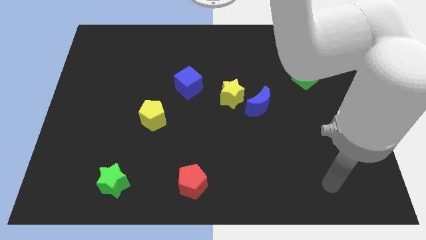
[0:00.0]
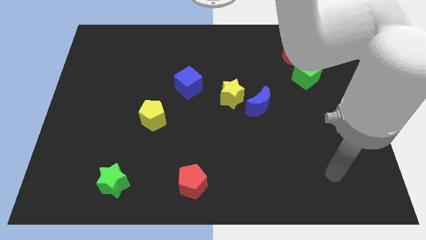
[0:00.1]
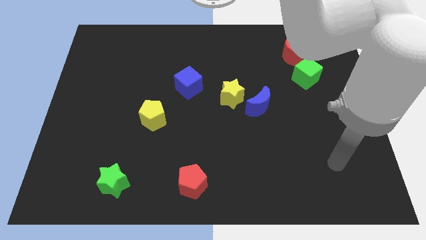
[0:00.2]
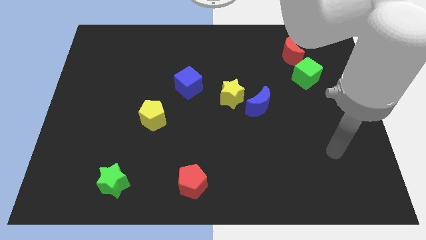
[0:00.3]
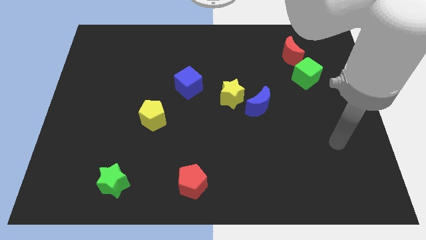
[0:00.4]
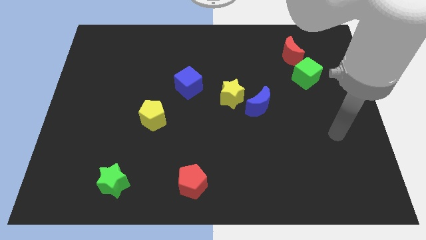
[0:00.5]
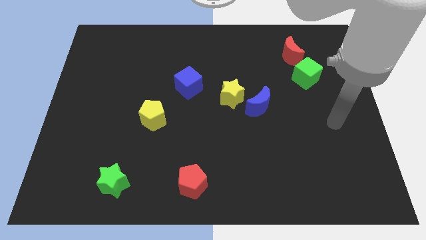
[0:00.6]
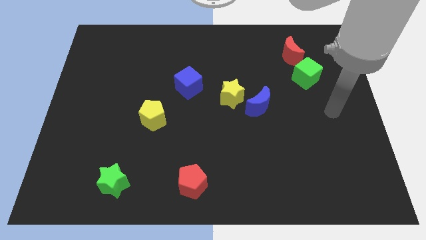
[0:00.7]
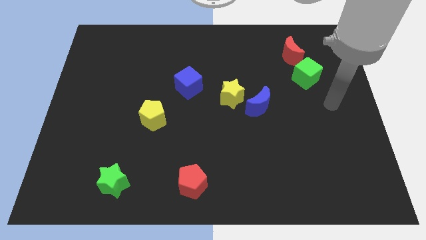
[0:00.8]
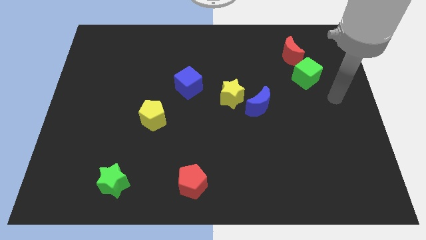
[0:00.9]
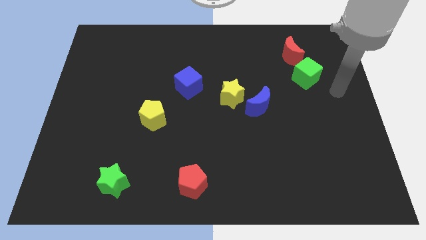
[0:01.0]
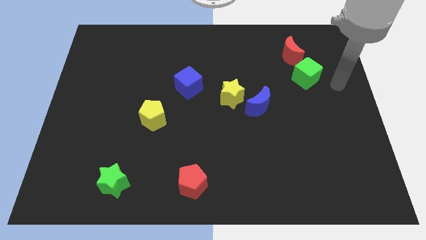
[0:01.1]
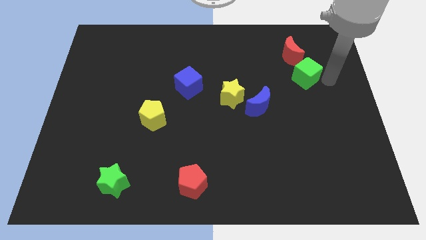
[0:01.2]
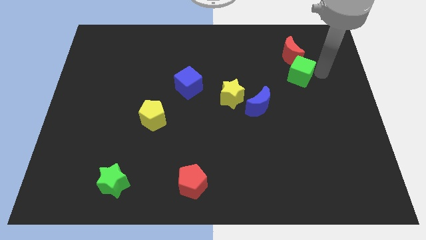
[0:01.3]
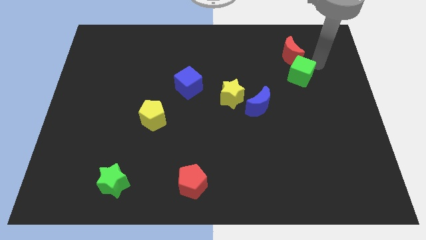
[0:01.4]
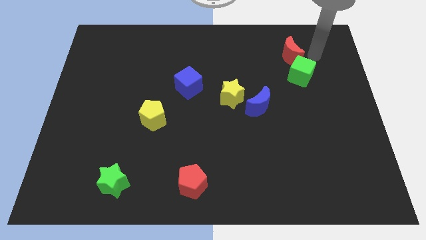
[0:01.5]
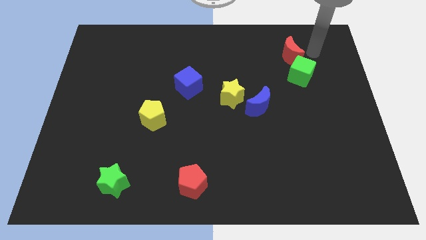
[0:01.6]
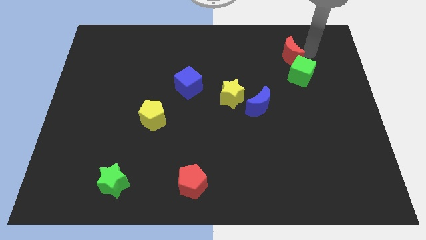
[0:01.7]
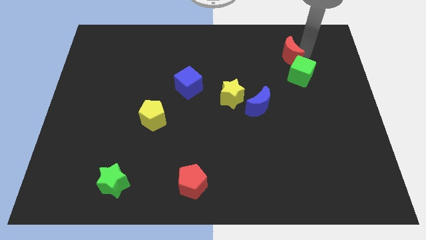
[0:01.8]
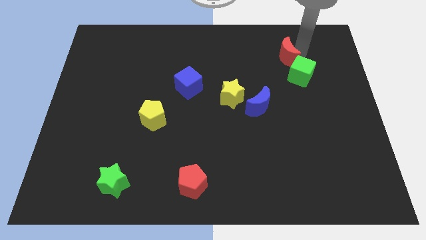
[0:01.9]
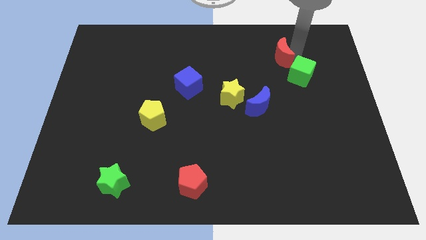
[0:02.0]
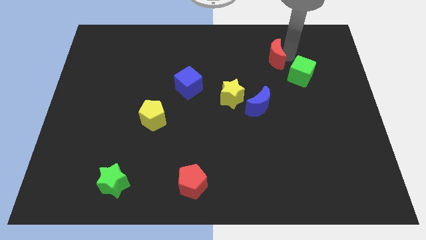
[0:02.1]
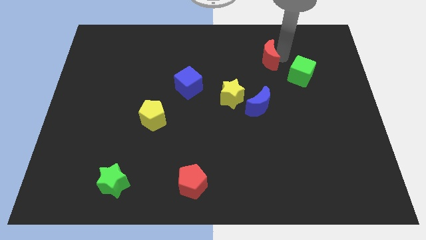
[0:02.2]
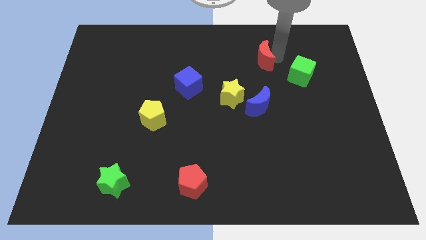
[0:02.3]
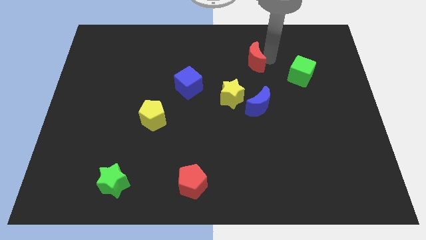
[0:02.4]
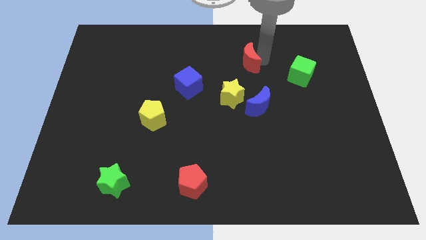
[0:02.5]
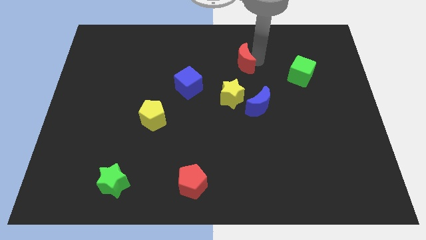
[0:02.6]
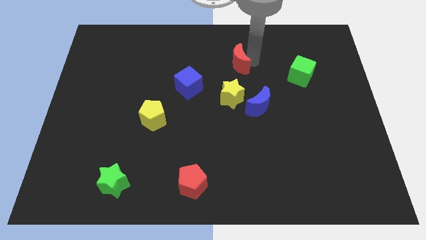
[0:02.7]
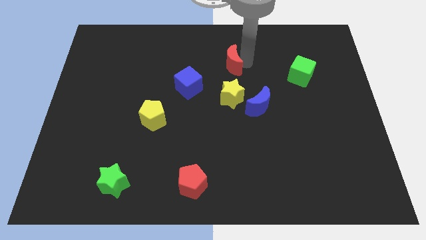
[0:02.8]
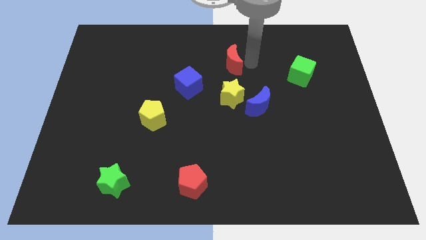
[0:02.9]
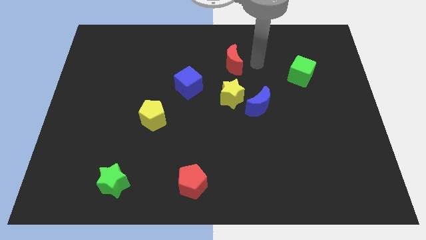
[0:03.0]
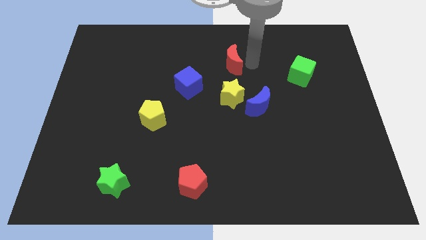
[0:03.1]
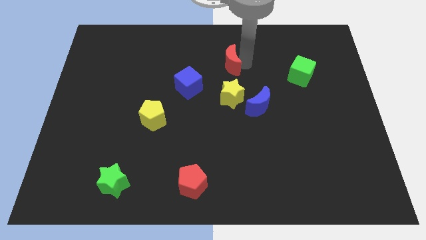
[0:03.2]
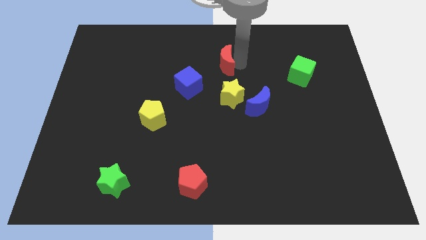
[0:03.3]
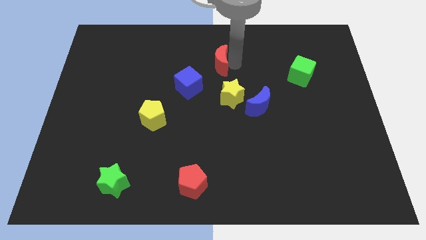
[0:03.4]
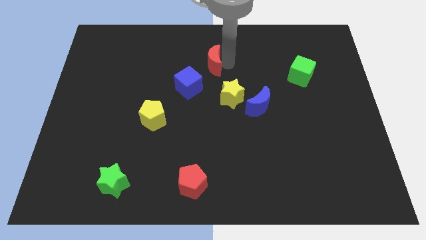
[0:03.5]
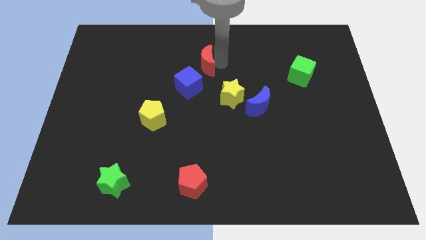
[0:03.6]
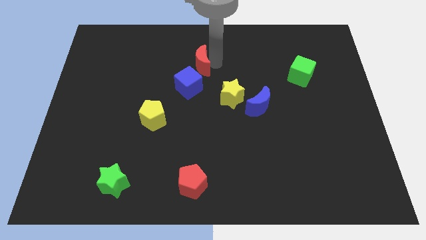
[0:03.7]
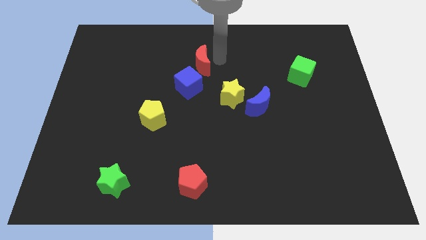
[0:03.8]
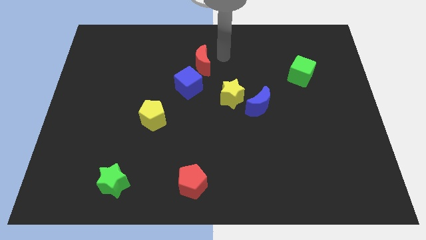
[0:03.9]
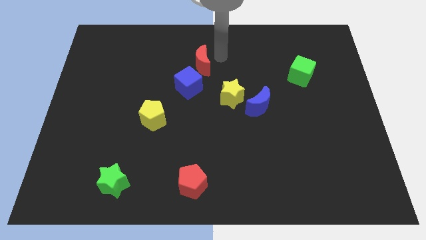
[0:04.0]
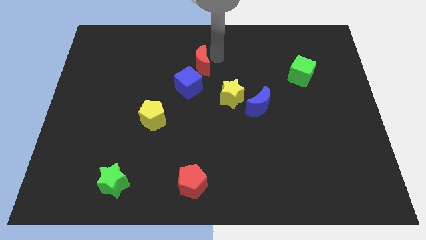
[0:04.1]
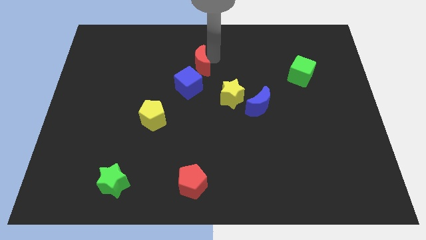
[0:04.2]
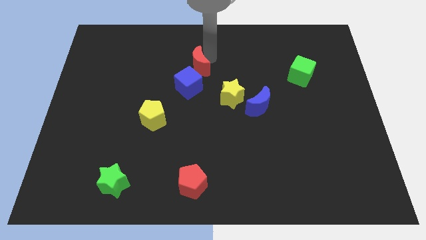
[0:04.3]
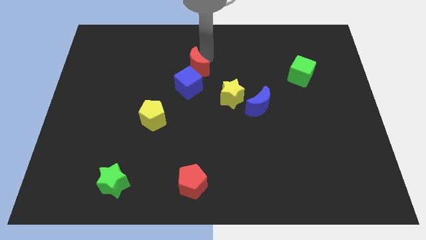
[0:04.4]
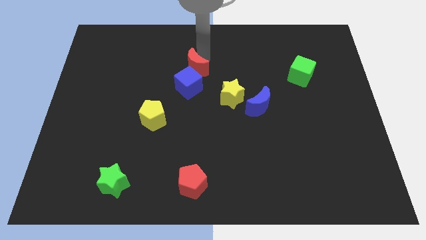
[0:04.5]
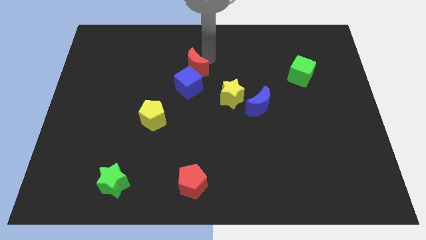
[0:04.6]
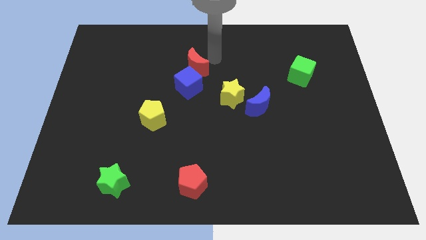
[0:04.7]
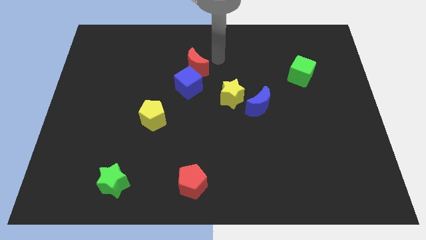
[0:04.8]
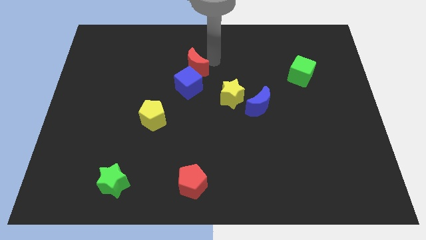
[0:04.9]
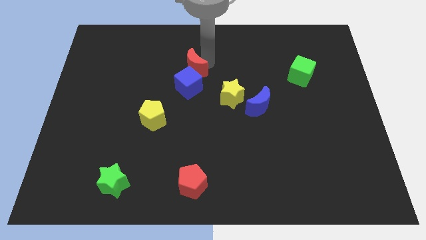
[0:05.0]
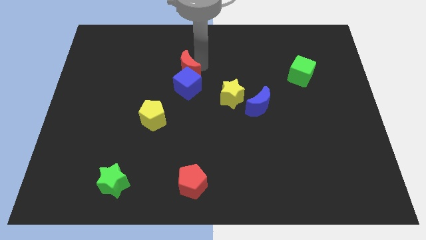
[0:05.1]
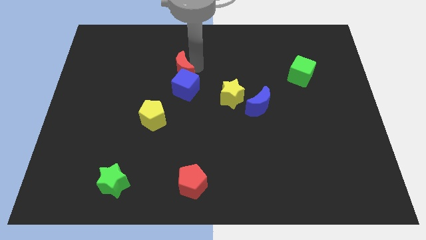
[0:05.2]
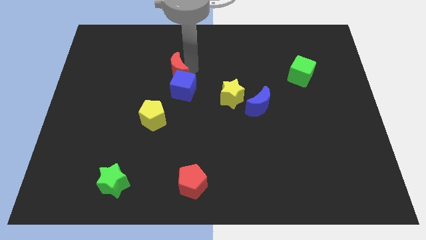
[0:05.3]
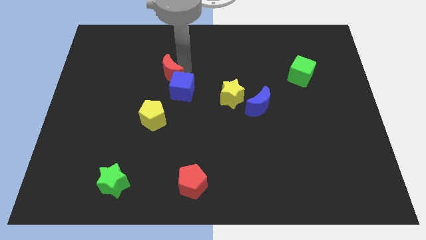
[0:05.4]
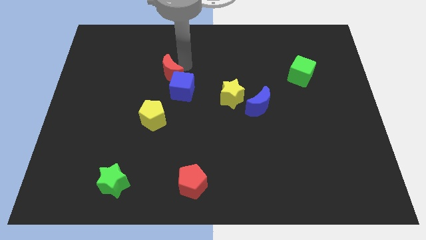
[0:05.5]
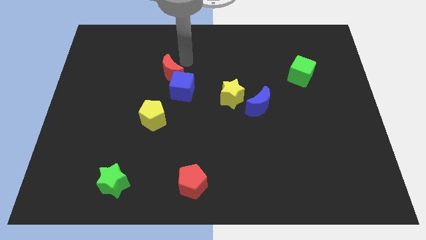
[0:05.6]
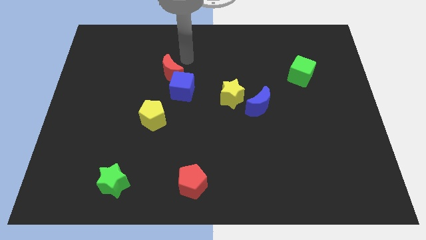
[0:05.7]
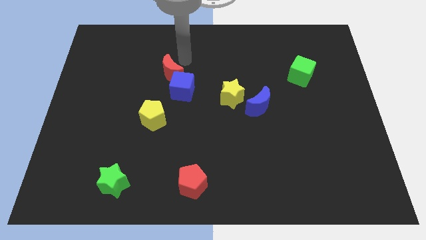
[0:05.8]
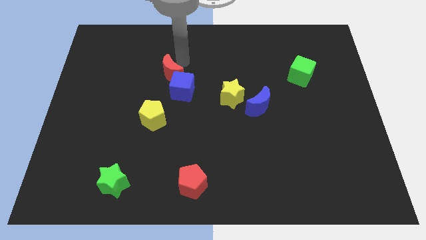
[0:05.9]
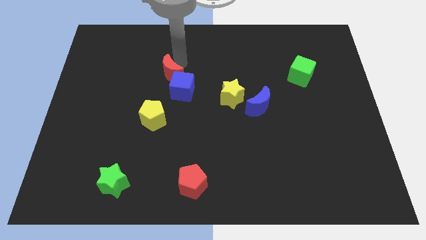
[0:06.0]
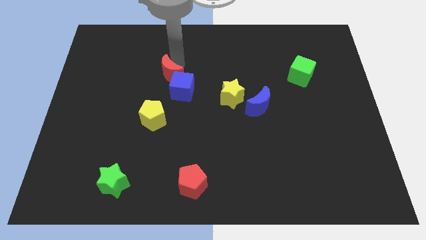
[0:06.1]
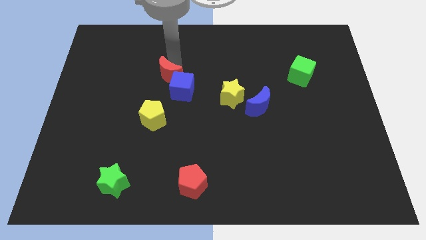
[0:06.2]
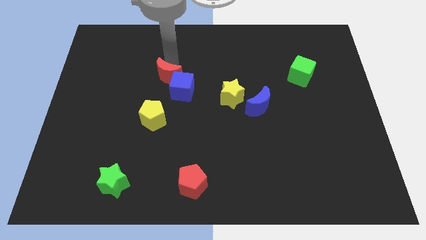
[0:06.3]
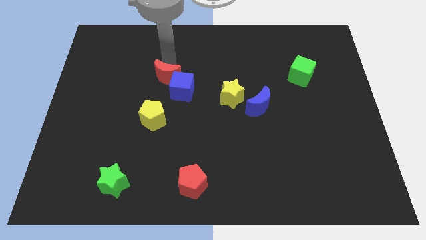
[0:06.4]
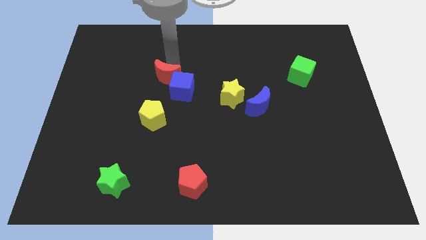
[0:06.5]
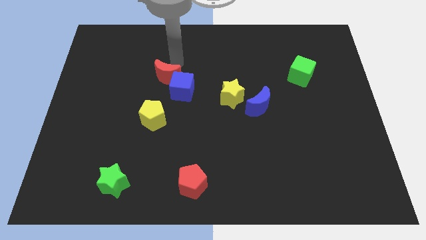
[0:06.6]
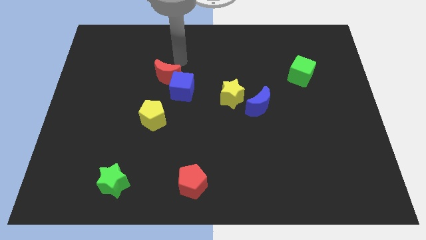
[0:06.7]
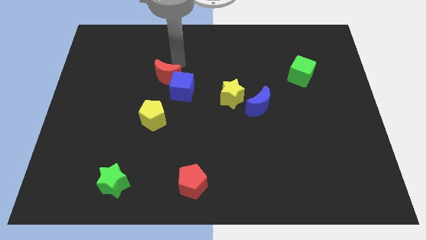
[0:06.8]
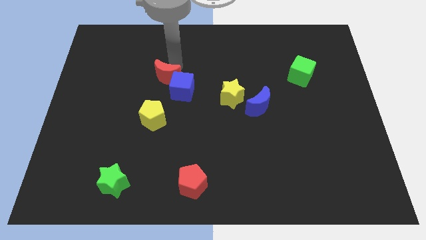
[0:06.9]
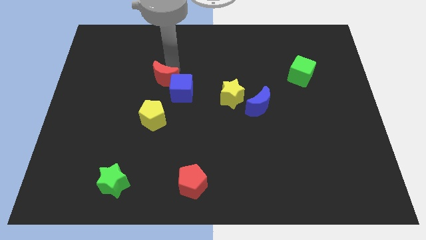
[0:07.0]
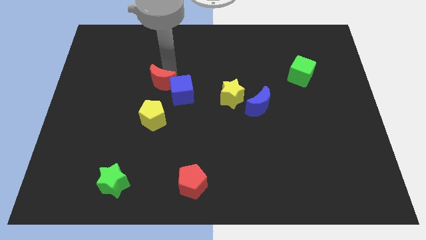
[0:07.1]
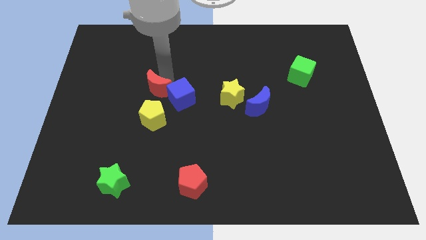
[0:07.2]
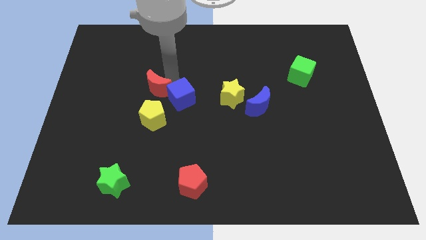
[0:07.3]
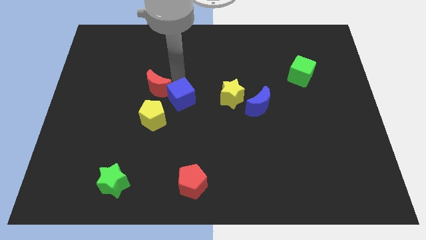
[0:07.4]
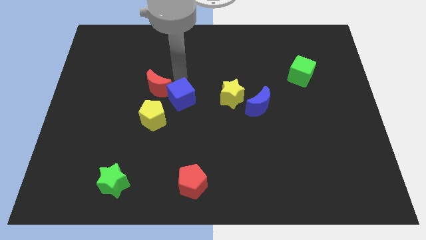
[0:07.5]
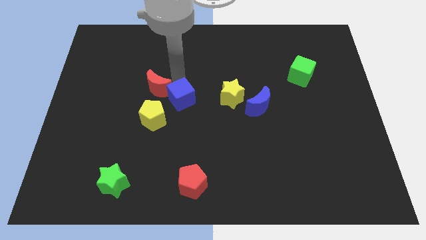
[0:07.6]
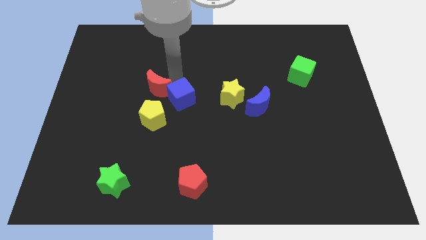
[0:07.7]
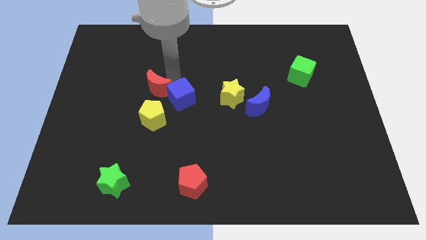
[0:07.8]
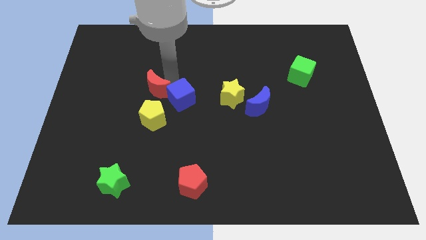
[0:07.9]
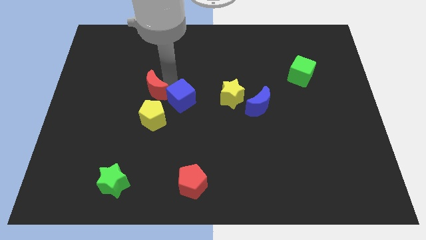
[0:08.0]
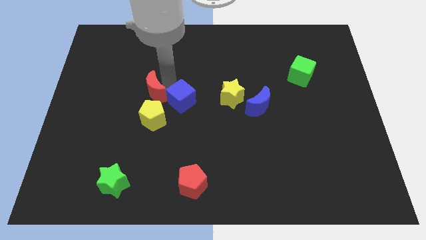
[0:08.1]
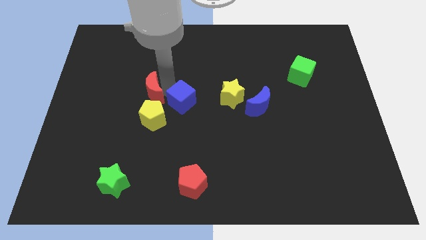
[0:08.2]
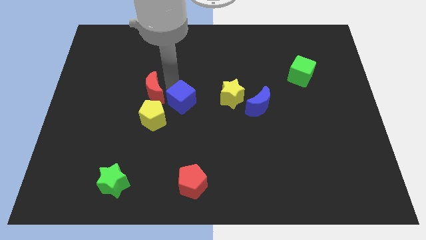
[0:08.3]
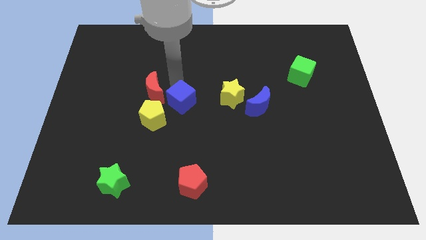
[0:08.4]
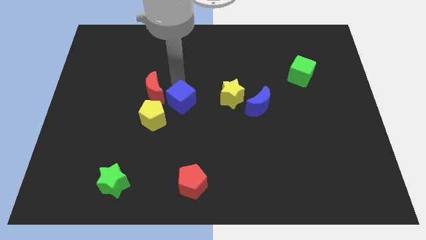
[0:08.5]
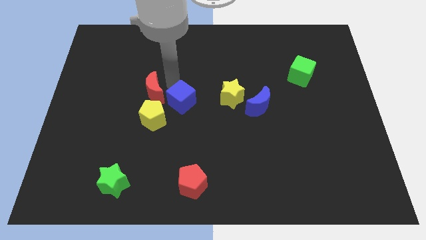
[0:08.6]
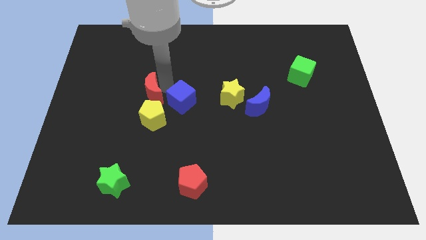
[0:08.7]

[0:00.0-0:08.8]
move the red moon to the top left of the yellow pentagon
